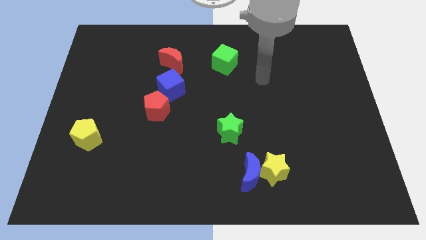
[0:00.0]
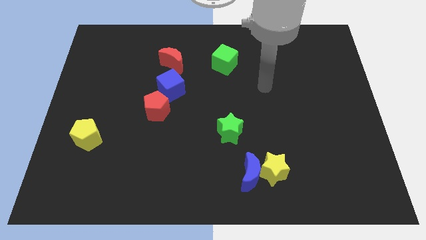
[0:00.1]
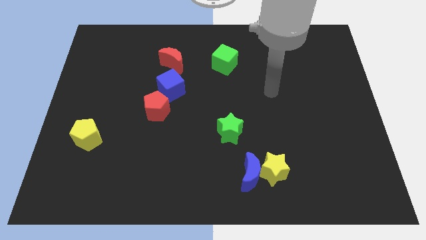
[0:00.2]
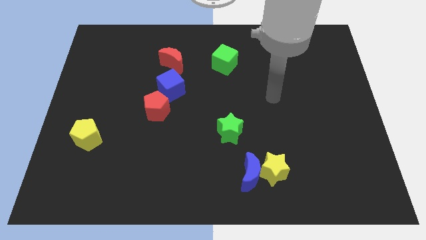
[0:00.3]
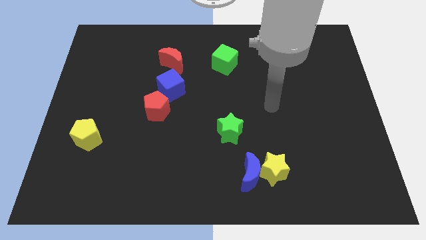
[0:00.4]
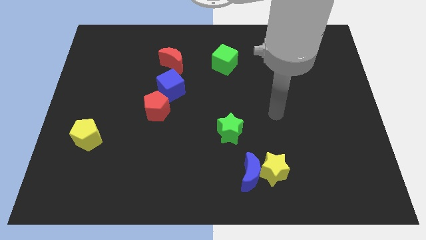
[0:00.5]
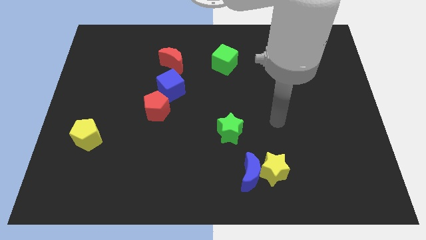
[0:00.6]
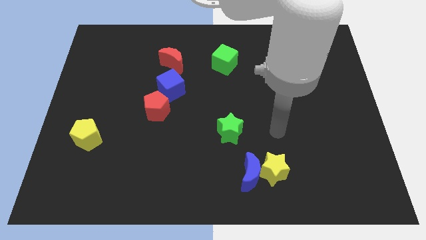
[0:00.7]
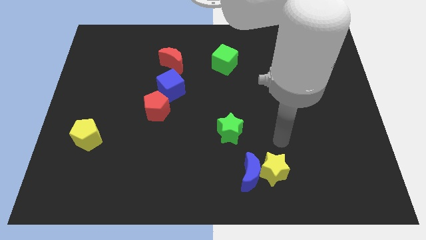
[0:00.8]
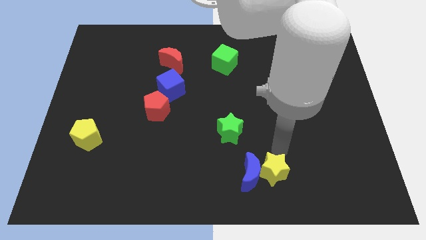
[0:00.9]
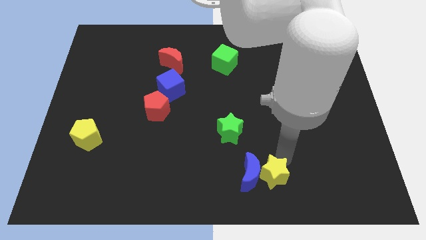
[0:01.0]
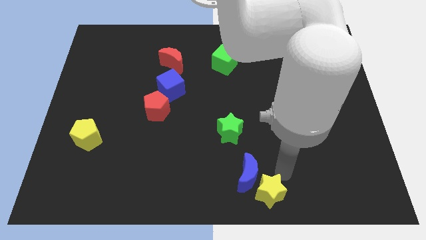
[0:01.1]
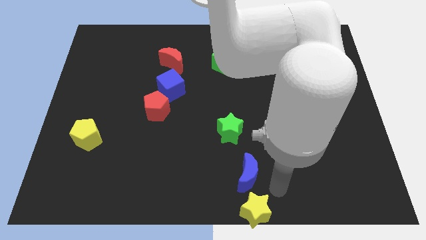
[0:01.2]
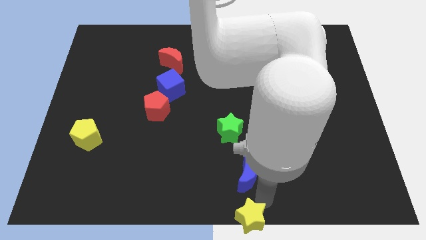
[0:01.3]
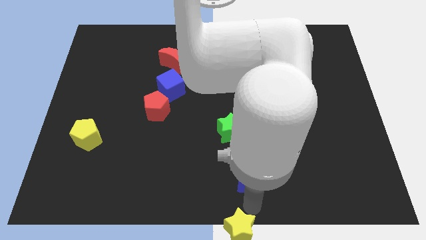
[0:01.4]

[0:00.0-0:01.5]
separate the blue moon from the yellow star

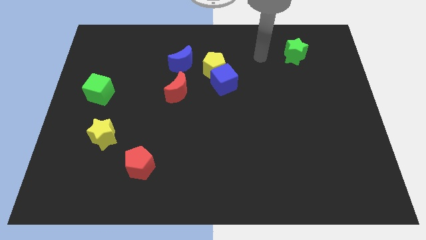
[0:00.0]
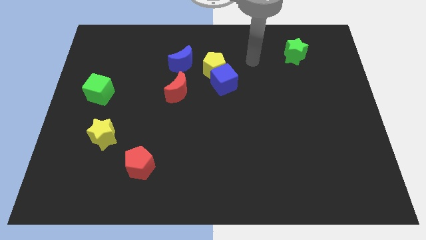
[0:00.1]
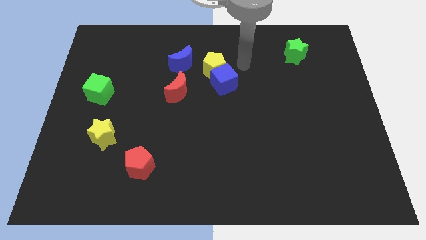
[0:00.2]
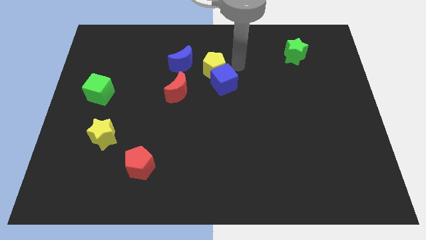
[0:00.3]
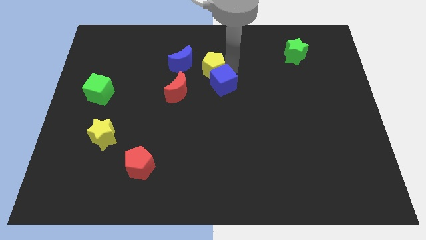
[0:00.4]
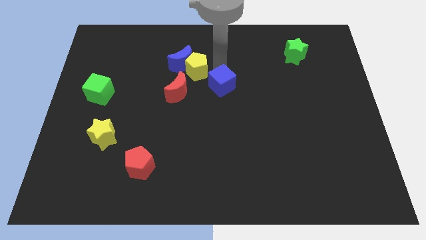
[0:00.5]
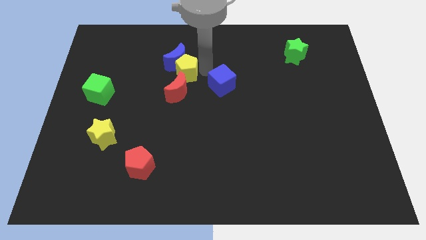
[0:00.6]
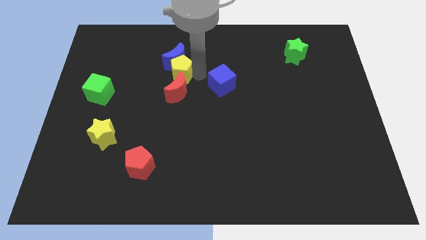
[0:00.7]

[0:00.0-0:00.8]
separate the blue cube from the yellow pentagon

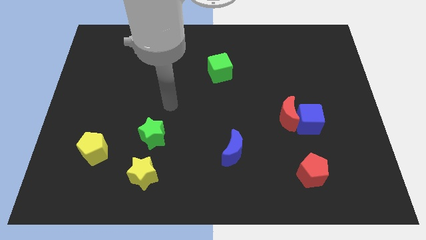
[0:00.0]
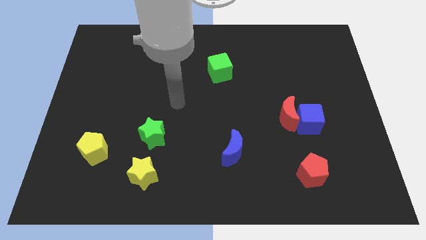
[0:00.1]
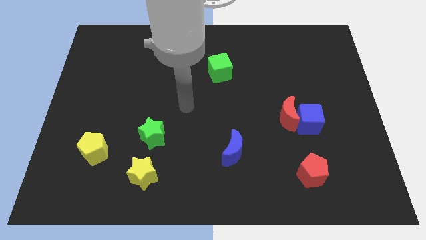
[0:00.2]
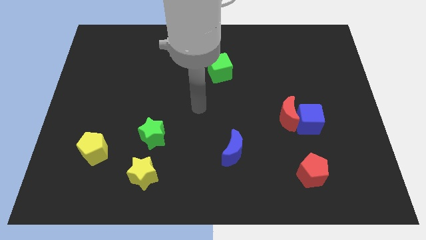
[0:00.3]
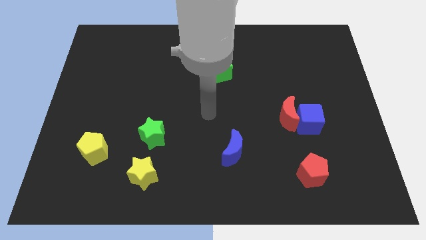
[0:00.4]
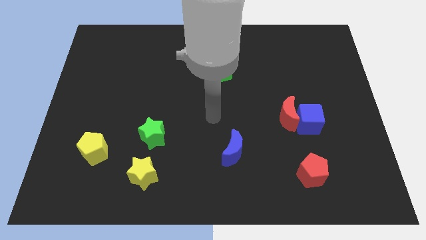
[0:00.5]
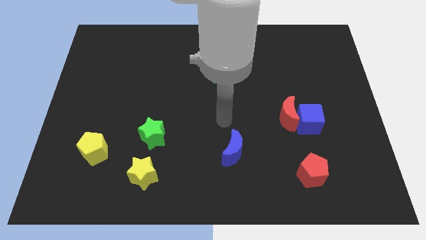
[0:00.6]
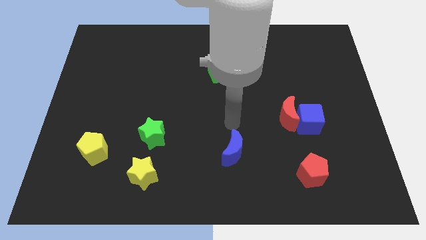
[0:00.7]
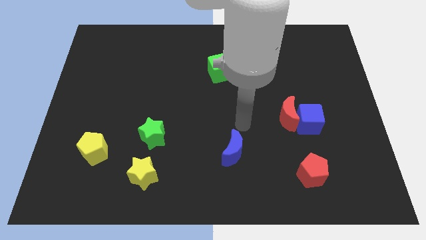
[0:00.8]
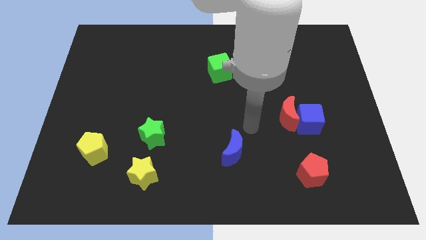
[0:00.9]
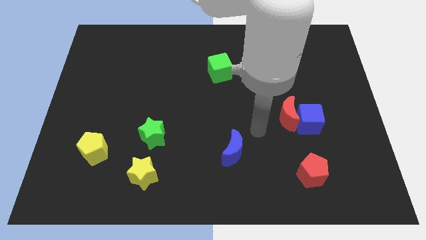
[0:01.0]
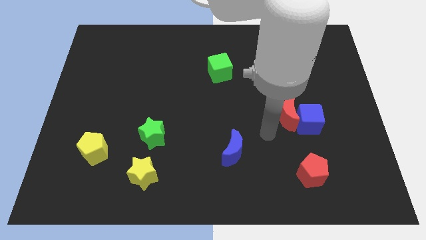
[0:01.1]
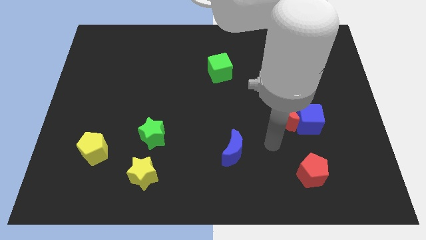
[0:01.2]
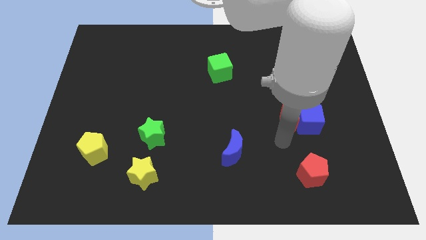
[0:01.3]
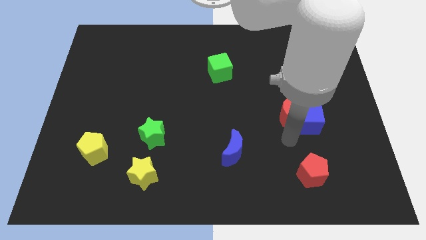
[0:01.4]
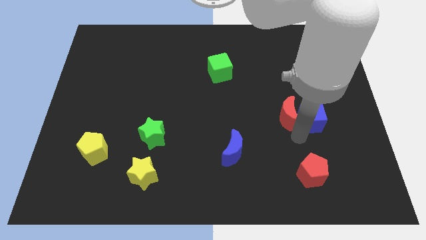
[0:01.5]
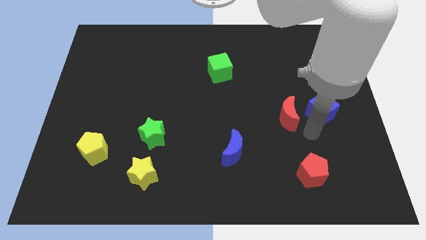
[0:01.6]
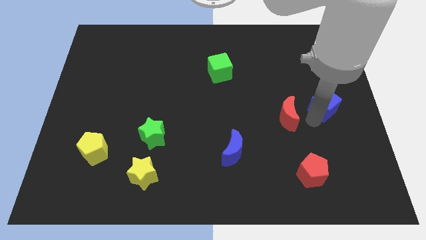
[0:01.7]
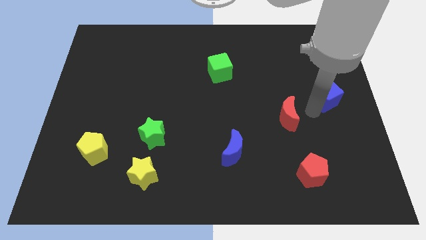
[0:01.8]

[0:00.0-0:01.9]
pull the red moon apart from the blue cube

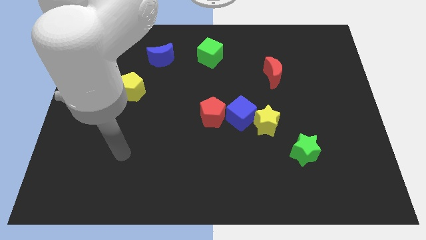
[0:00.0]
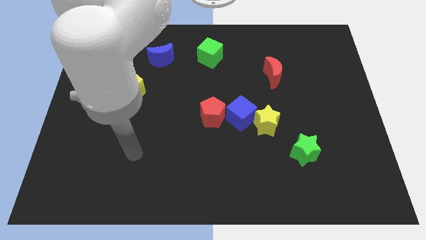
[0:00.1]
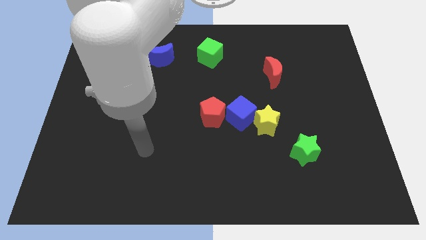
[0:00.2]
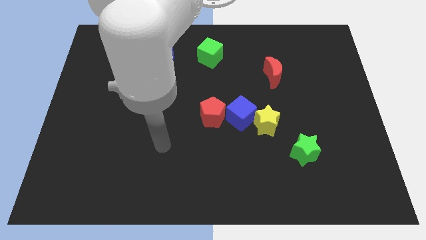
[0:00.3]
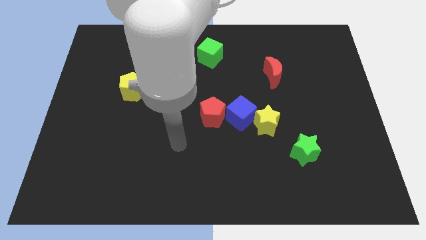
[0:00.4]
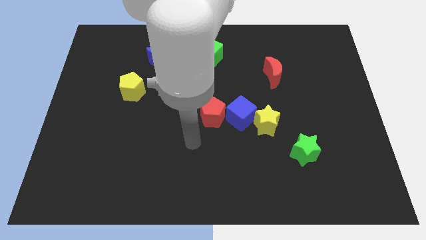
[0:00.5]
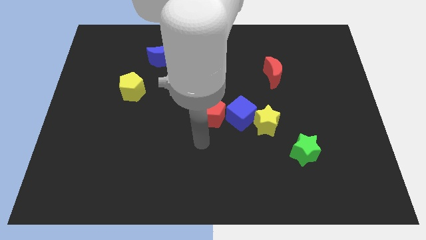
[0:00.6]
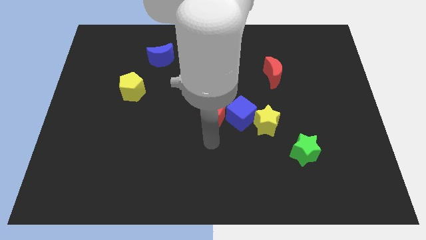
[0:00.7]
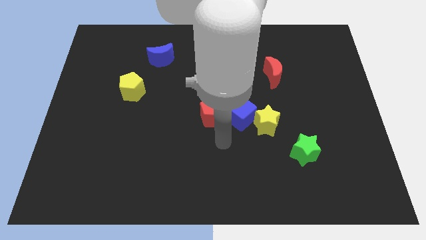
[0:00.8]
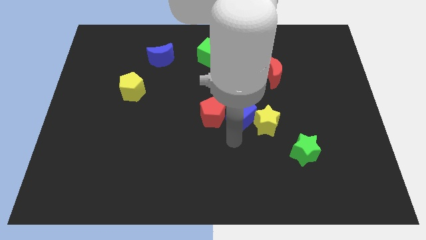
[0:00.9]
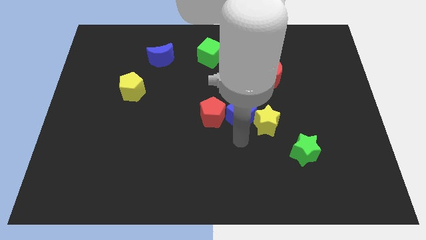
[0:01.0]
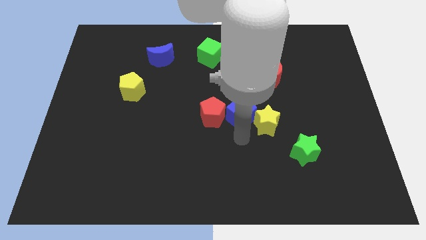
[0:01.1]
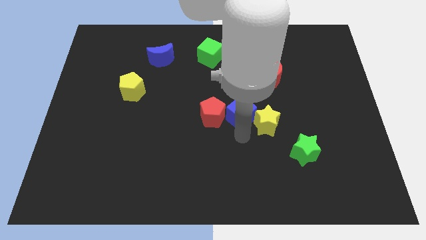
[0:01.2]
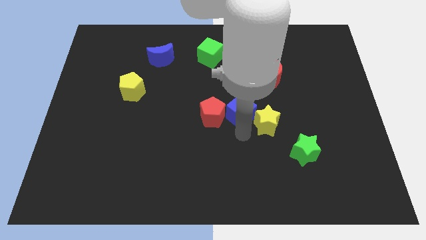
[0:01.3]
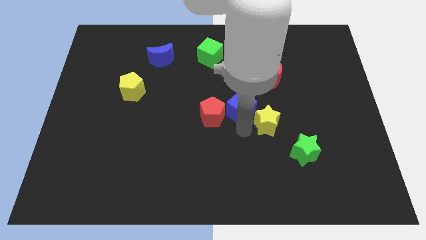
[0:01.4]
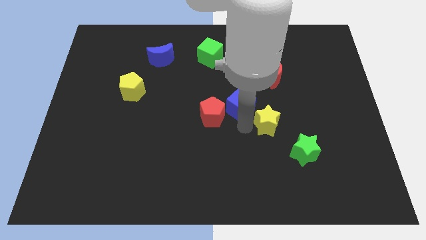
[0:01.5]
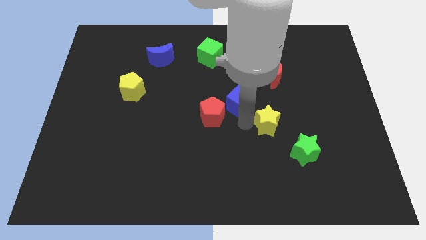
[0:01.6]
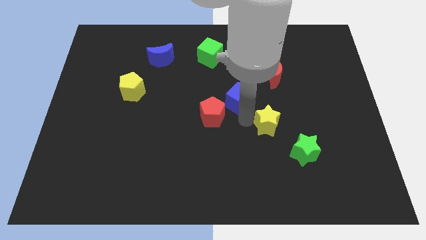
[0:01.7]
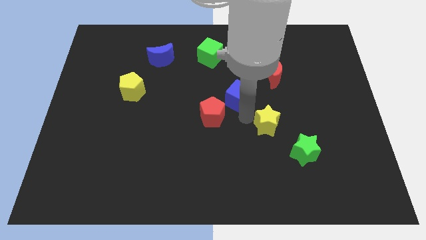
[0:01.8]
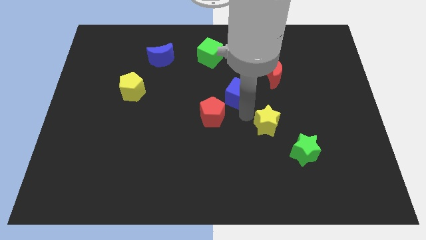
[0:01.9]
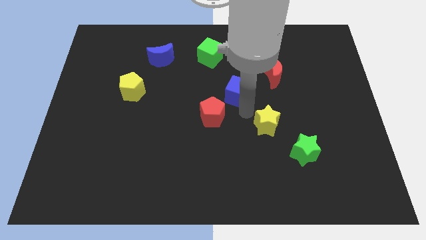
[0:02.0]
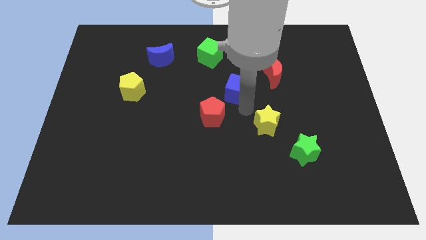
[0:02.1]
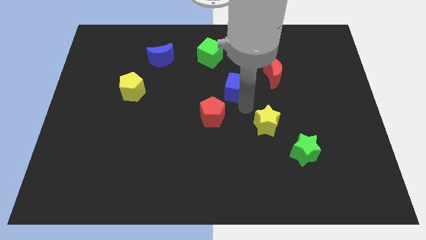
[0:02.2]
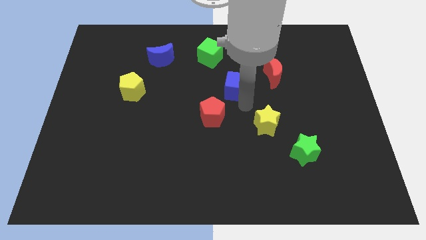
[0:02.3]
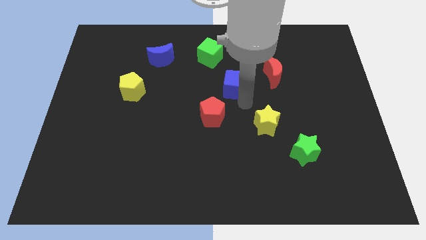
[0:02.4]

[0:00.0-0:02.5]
move the blue cube away from the yellow star and red pentagon

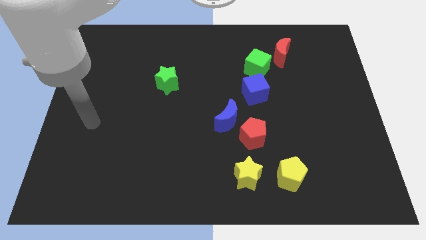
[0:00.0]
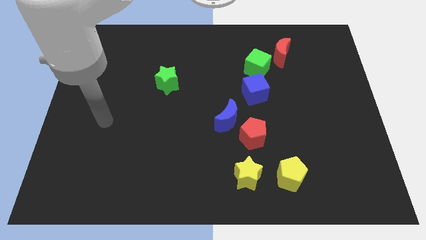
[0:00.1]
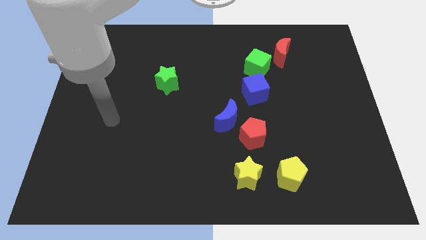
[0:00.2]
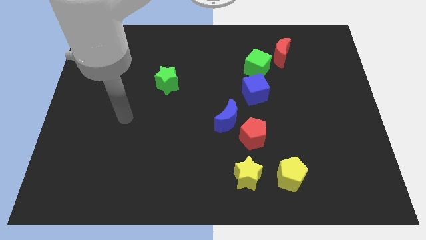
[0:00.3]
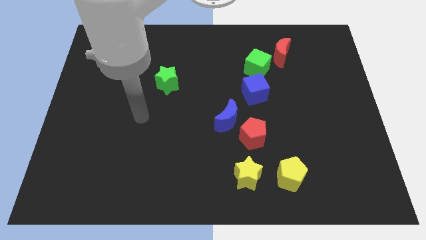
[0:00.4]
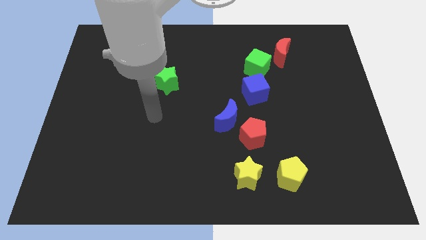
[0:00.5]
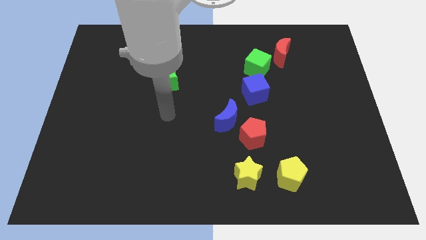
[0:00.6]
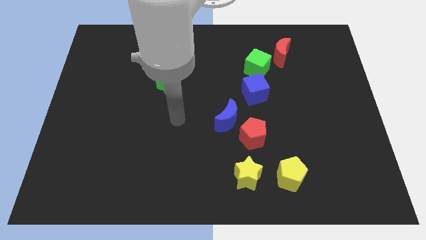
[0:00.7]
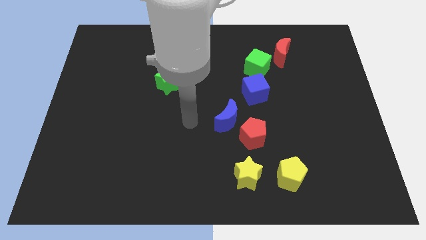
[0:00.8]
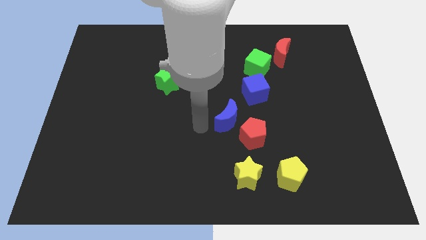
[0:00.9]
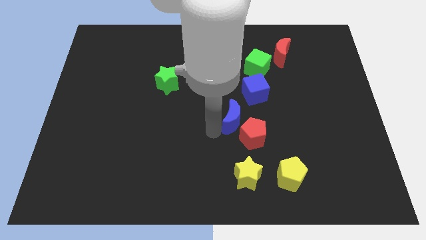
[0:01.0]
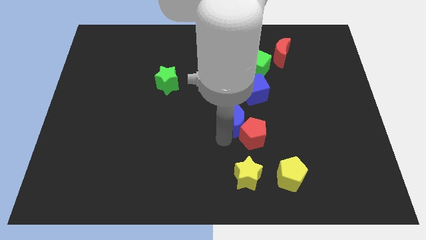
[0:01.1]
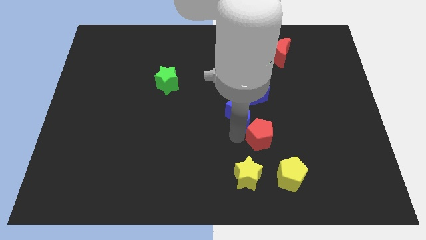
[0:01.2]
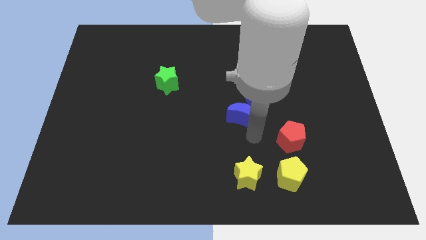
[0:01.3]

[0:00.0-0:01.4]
separate the blue moon from the red pentagon

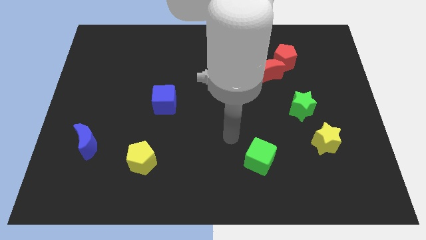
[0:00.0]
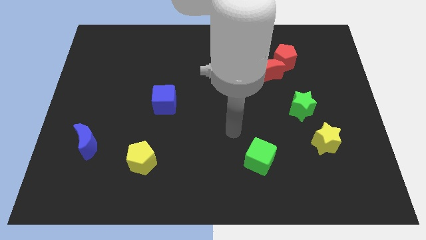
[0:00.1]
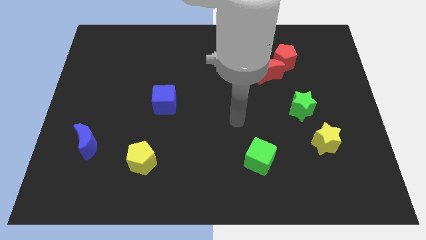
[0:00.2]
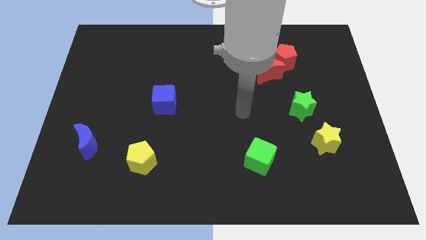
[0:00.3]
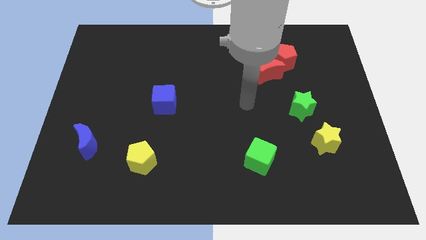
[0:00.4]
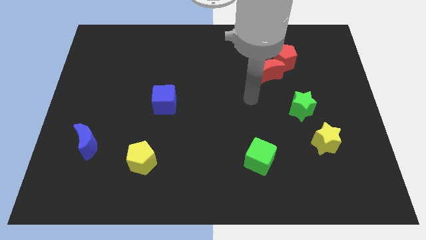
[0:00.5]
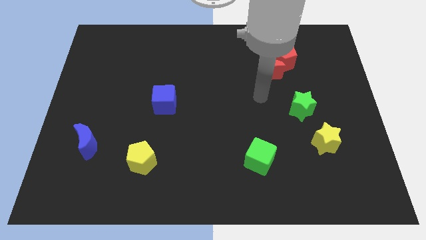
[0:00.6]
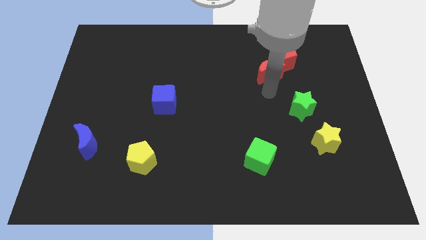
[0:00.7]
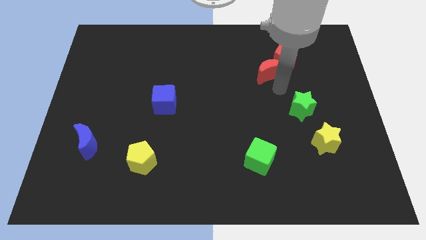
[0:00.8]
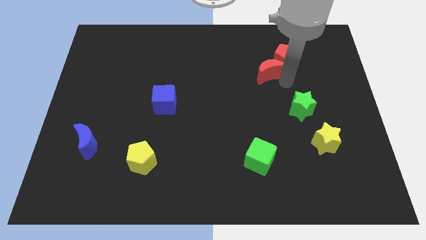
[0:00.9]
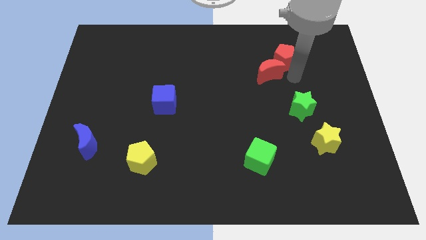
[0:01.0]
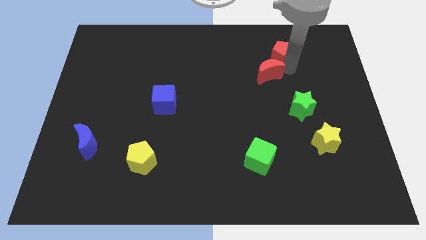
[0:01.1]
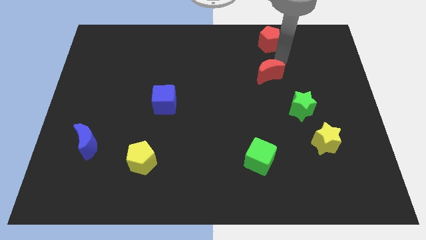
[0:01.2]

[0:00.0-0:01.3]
pull the red moon apart from the red pentagon

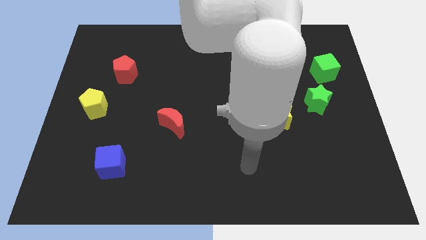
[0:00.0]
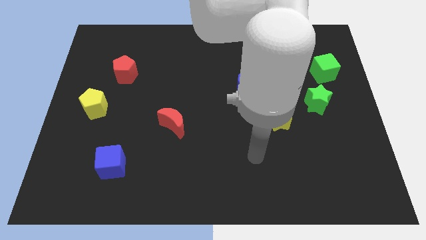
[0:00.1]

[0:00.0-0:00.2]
separate the green star from the yellow star
